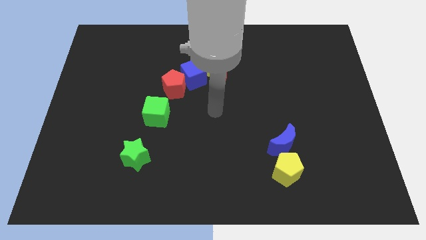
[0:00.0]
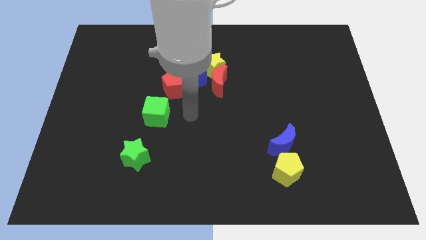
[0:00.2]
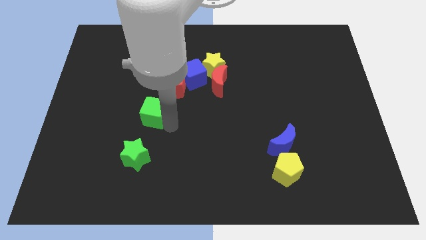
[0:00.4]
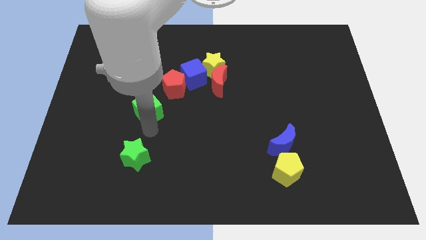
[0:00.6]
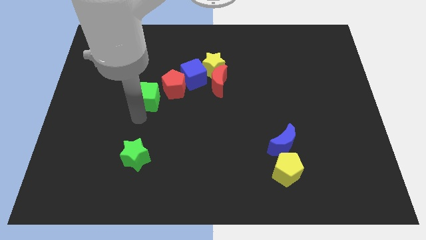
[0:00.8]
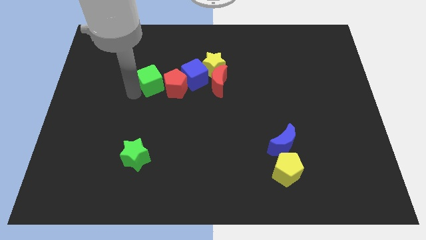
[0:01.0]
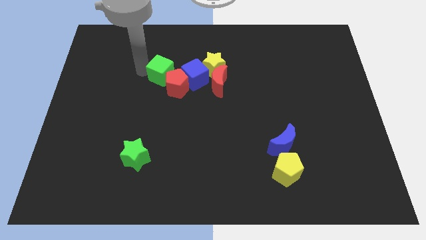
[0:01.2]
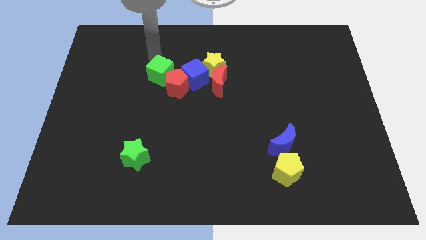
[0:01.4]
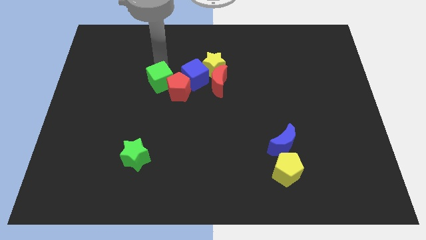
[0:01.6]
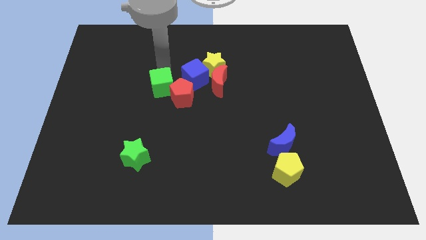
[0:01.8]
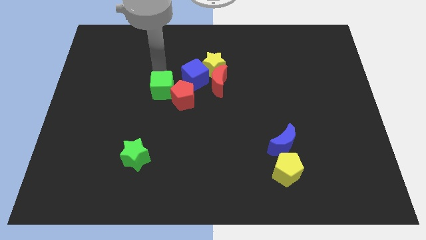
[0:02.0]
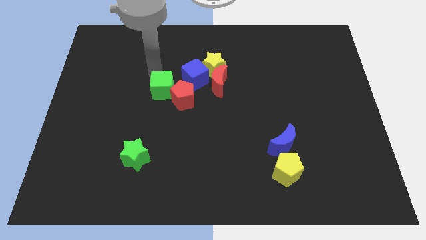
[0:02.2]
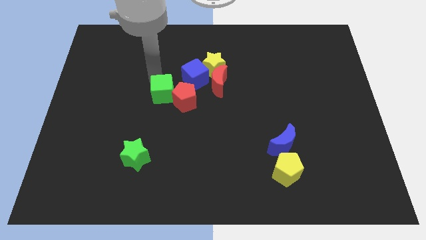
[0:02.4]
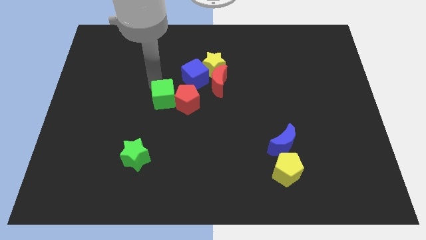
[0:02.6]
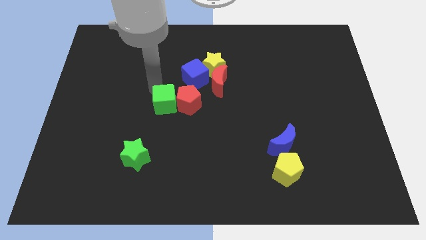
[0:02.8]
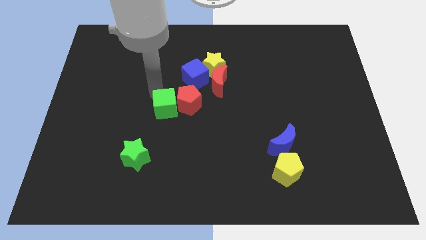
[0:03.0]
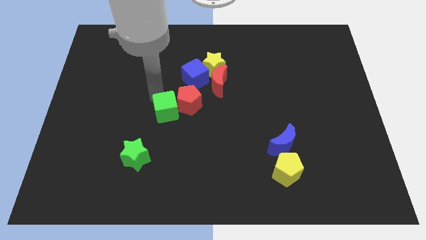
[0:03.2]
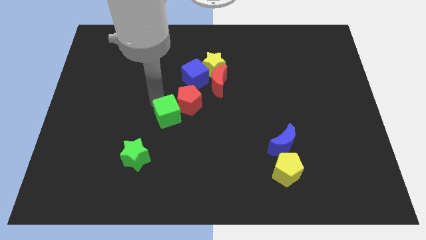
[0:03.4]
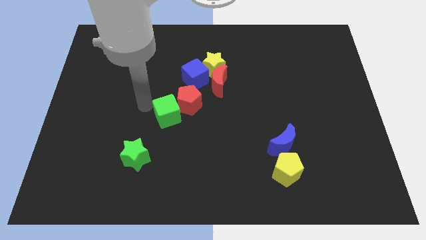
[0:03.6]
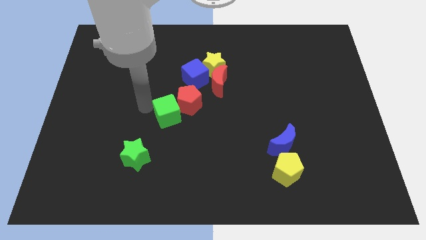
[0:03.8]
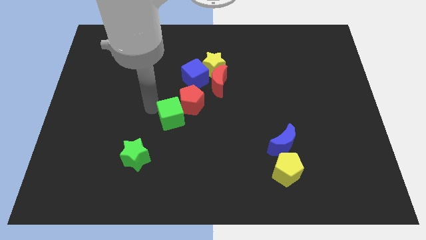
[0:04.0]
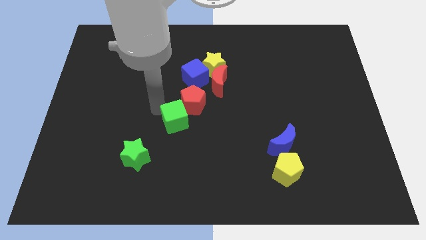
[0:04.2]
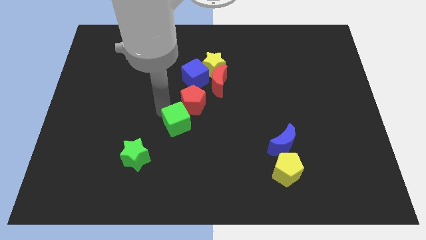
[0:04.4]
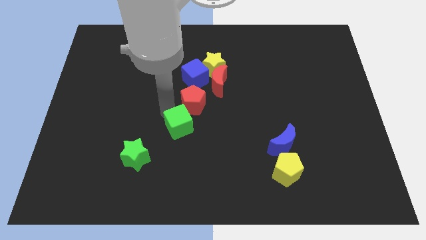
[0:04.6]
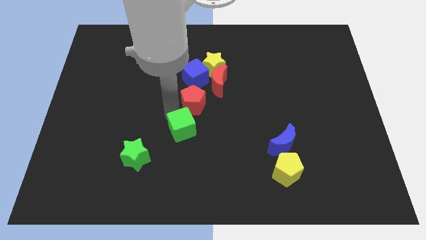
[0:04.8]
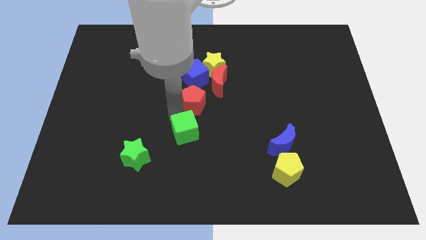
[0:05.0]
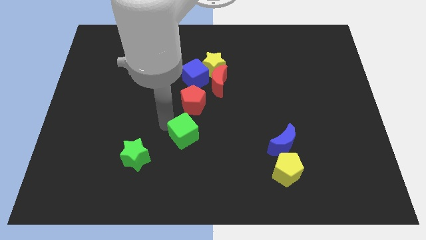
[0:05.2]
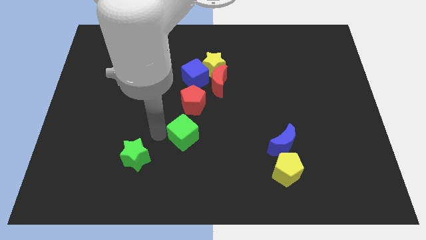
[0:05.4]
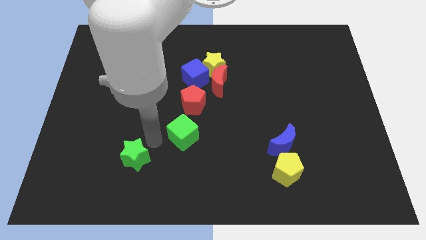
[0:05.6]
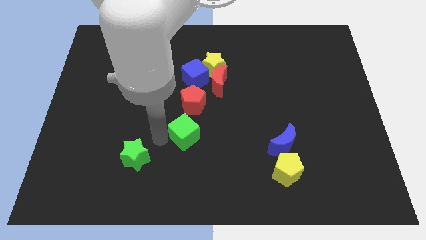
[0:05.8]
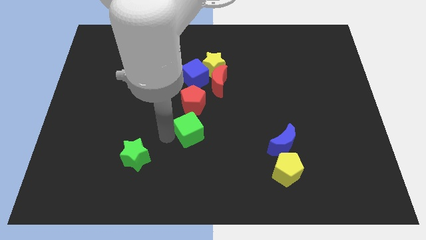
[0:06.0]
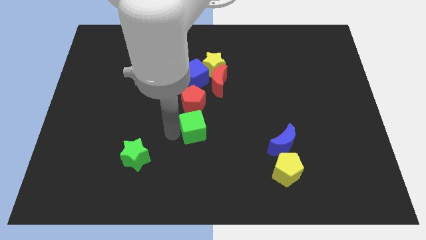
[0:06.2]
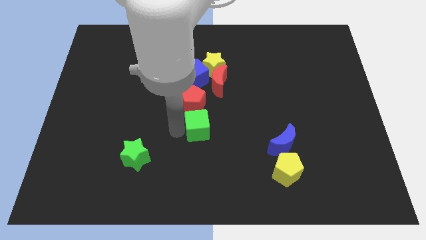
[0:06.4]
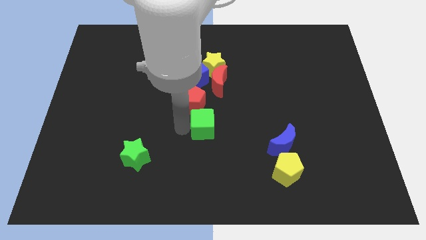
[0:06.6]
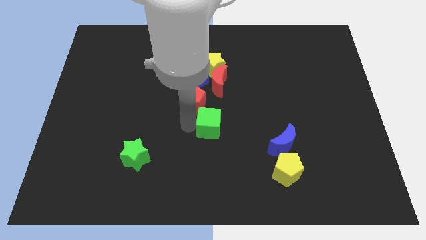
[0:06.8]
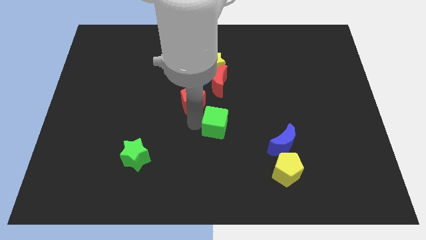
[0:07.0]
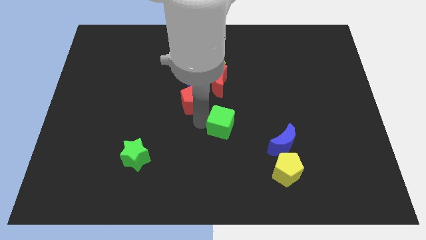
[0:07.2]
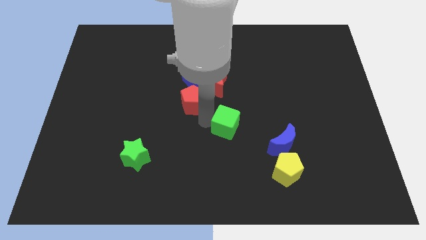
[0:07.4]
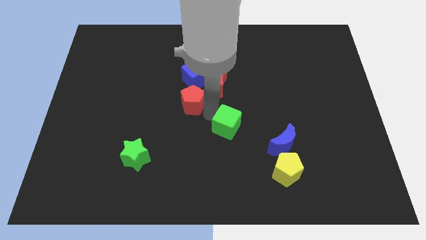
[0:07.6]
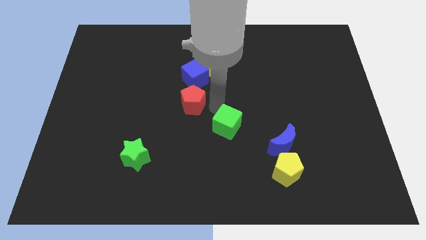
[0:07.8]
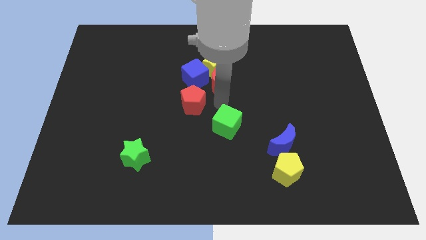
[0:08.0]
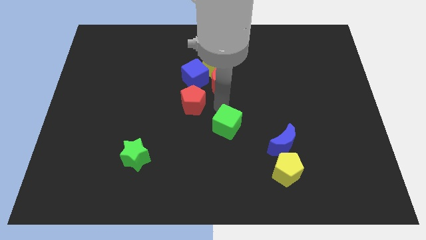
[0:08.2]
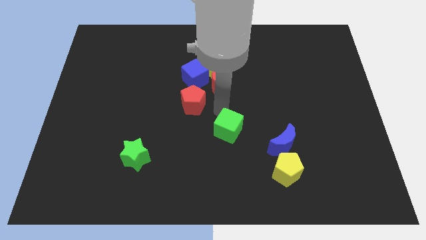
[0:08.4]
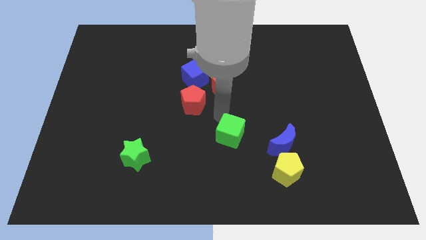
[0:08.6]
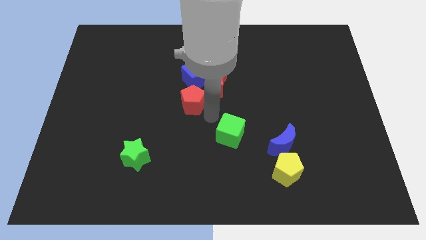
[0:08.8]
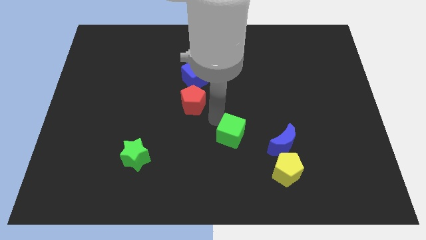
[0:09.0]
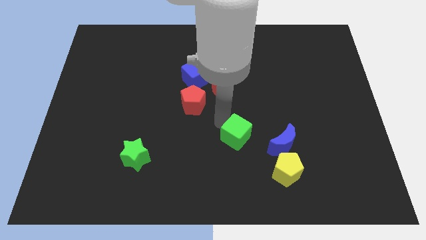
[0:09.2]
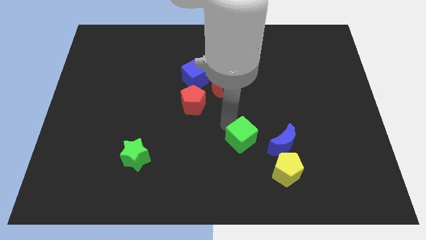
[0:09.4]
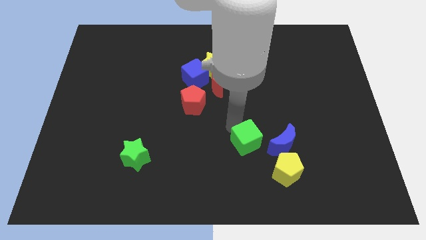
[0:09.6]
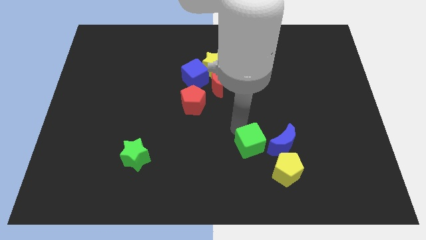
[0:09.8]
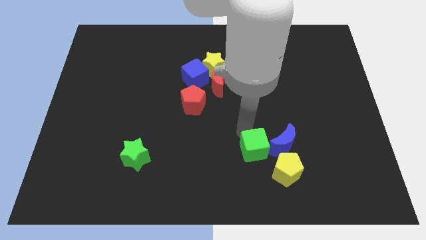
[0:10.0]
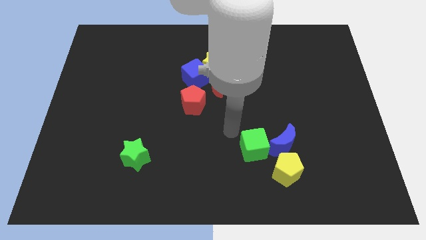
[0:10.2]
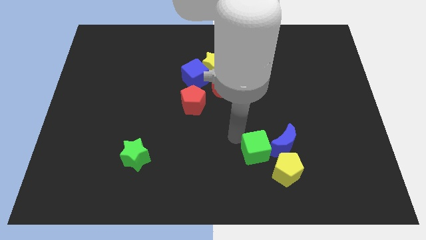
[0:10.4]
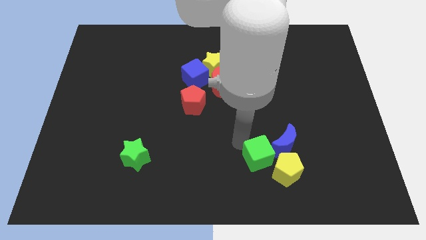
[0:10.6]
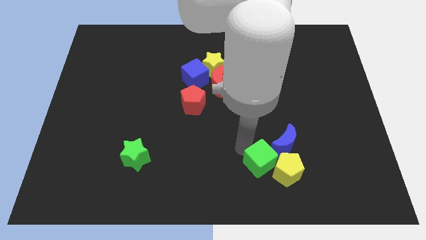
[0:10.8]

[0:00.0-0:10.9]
slide the green cube next to the yellow pentagon

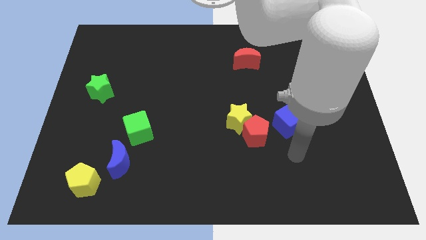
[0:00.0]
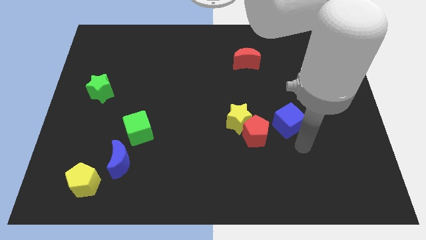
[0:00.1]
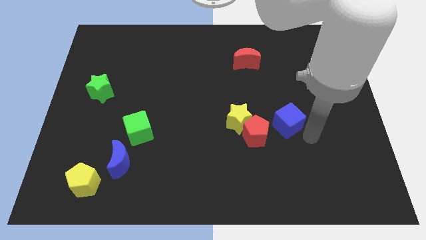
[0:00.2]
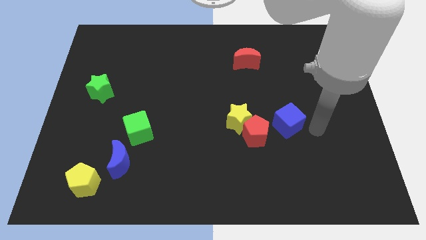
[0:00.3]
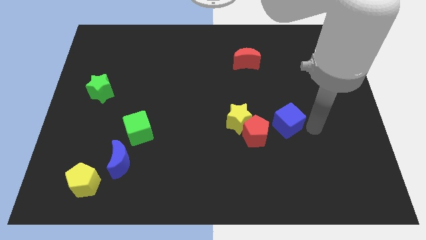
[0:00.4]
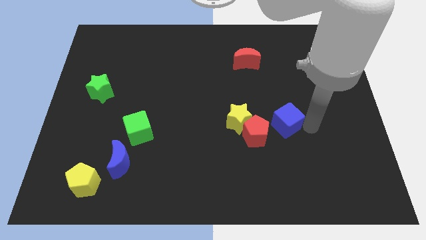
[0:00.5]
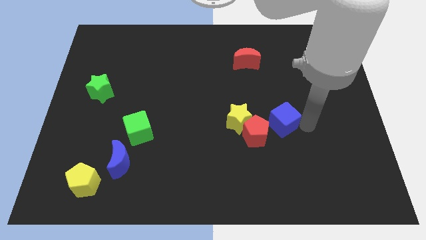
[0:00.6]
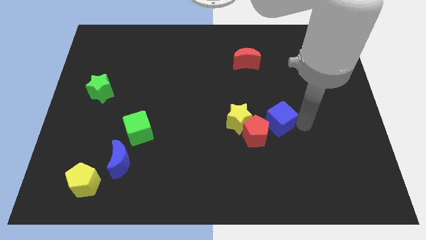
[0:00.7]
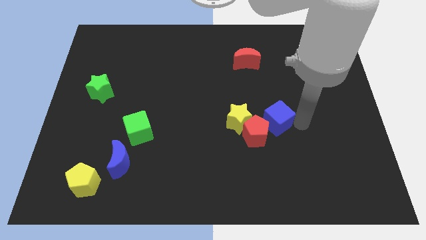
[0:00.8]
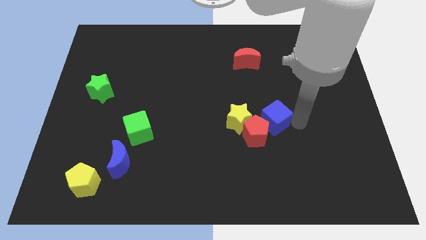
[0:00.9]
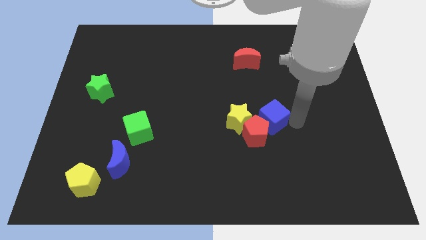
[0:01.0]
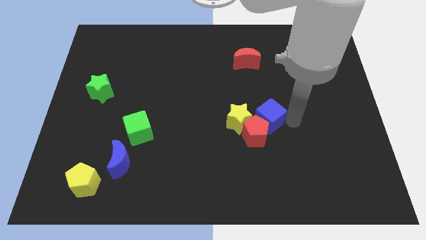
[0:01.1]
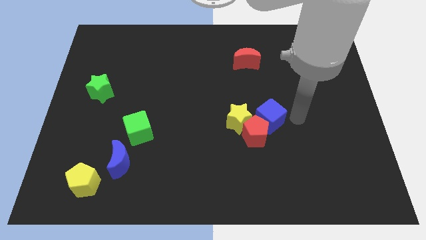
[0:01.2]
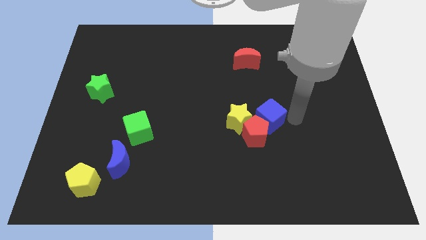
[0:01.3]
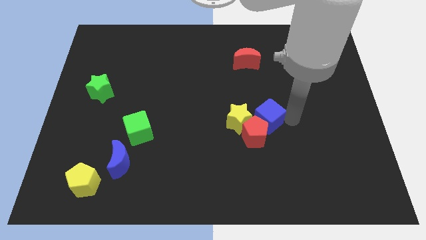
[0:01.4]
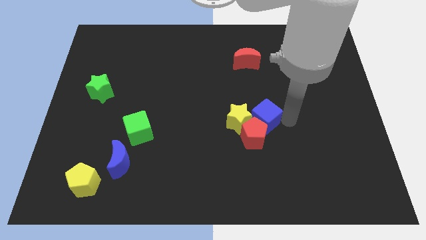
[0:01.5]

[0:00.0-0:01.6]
push the blue cube next to the yellow star

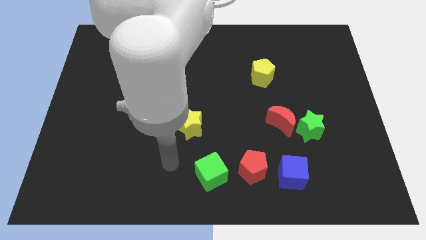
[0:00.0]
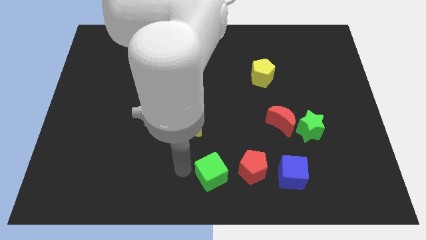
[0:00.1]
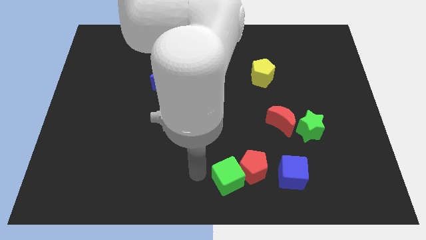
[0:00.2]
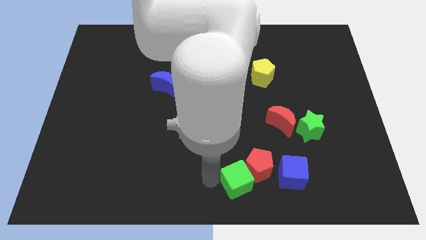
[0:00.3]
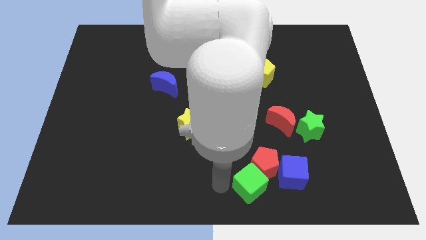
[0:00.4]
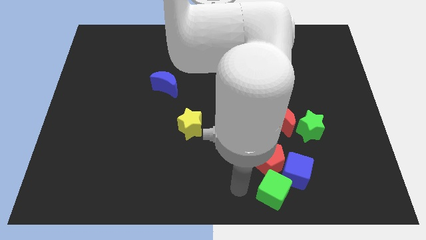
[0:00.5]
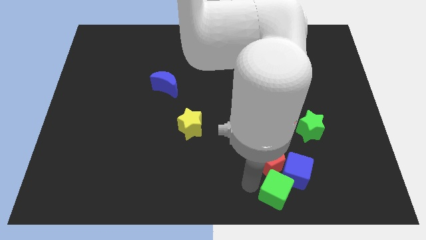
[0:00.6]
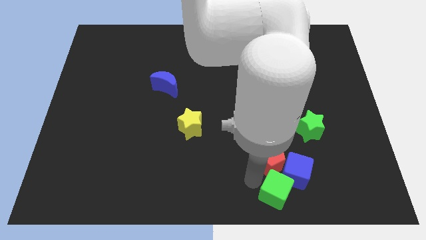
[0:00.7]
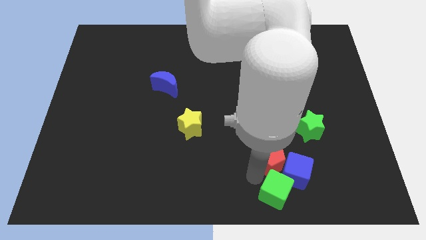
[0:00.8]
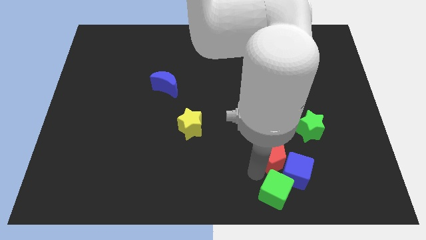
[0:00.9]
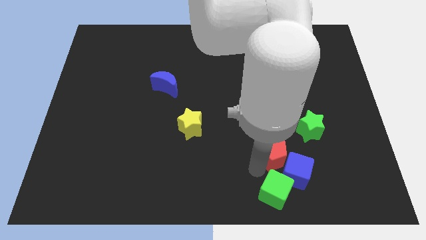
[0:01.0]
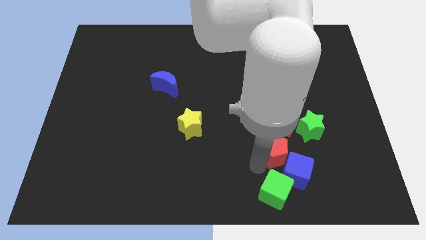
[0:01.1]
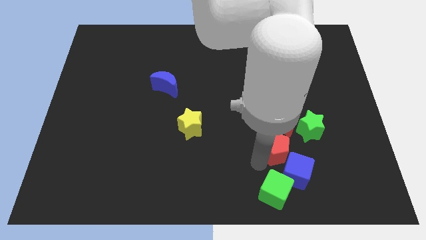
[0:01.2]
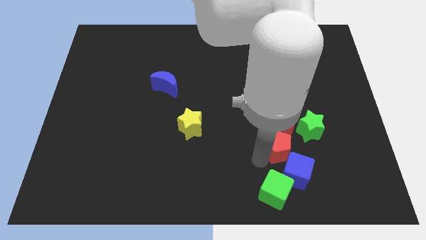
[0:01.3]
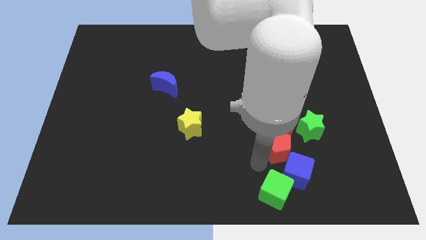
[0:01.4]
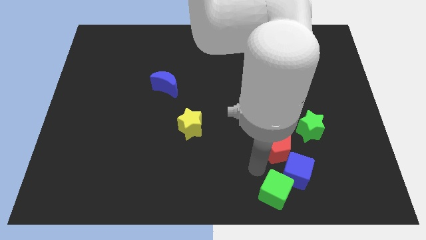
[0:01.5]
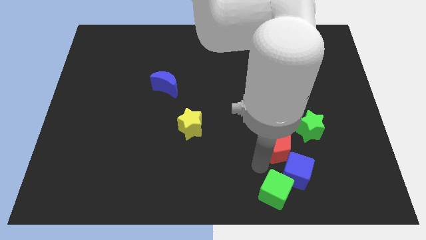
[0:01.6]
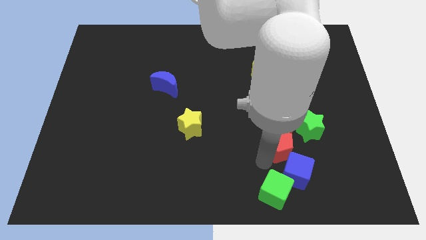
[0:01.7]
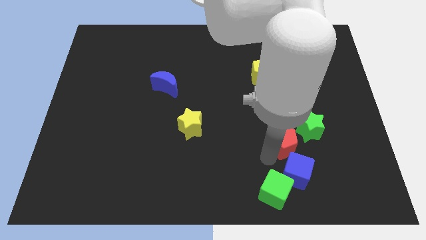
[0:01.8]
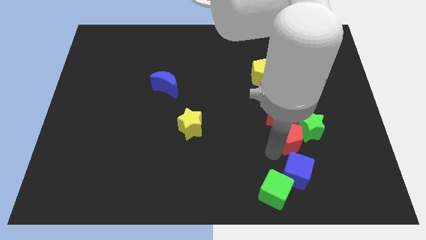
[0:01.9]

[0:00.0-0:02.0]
slide the red pentagon next to the green star
